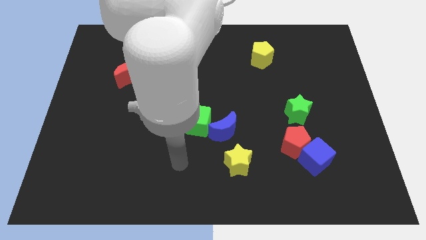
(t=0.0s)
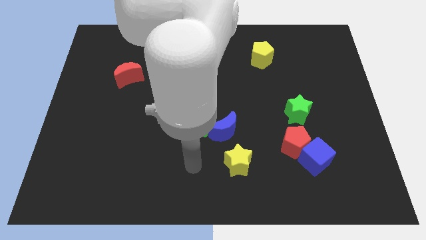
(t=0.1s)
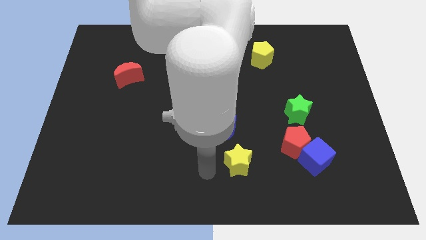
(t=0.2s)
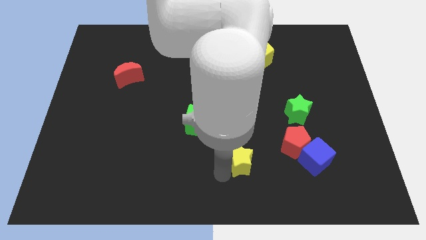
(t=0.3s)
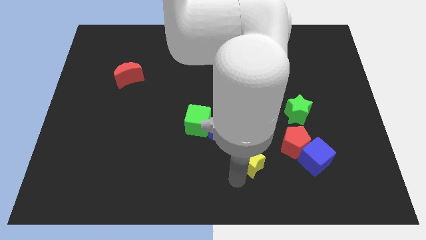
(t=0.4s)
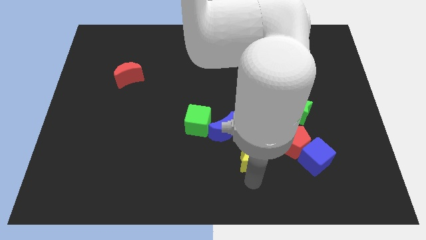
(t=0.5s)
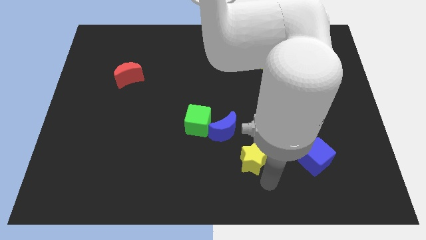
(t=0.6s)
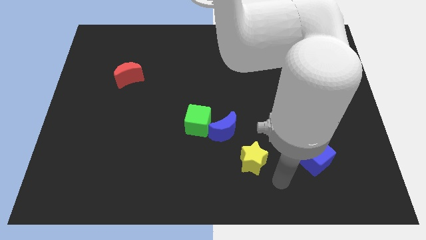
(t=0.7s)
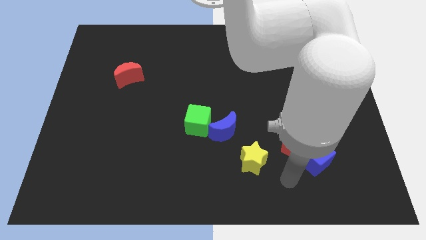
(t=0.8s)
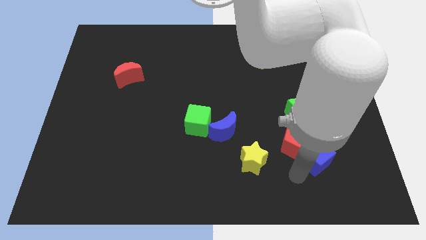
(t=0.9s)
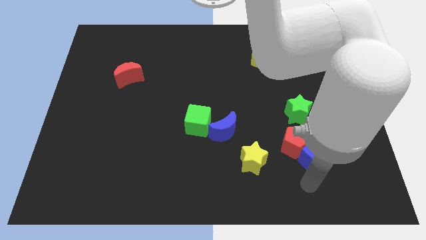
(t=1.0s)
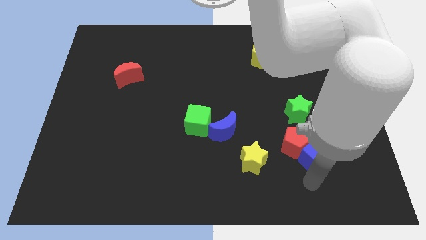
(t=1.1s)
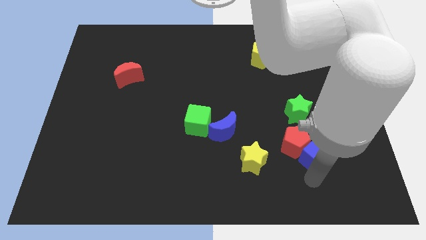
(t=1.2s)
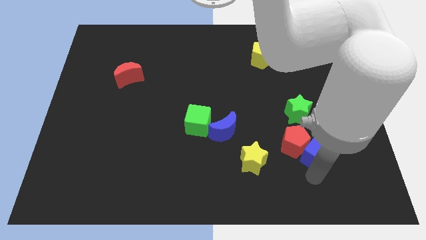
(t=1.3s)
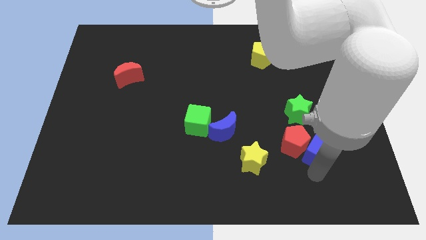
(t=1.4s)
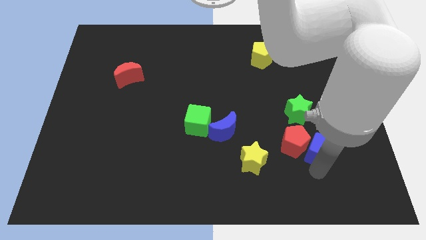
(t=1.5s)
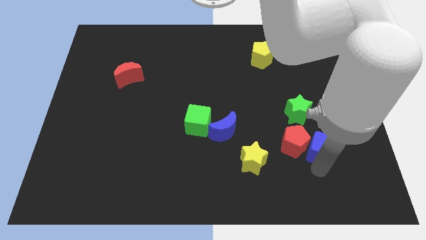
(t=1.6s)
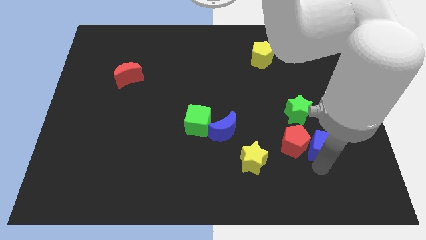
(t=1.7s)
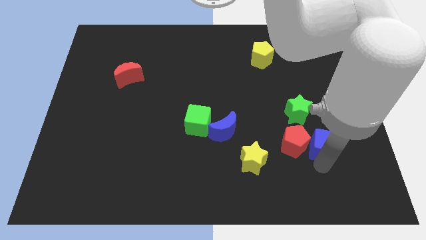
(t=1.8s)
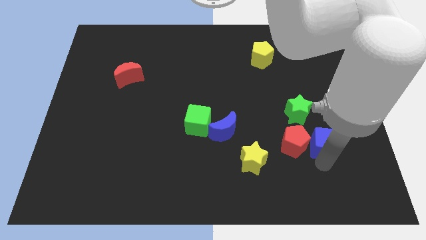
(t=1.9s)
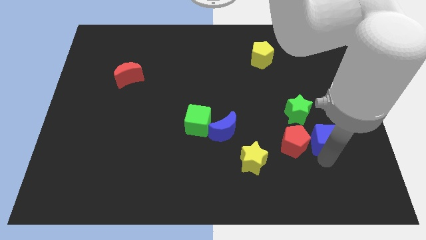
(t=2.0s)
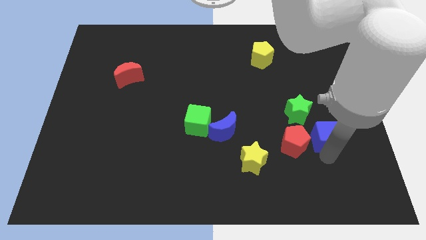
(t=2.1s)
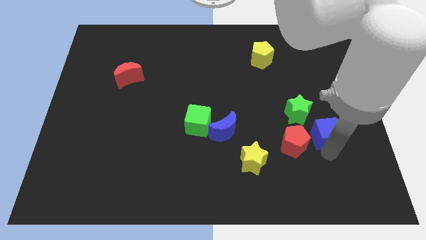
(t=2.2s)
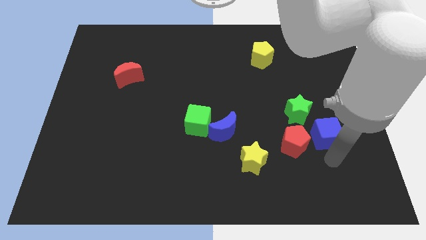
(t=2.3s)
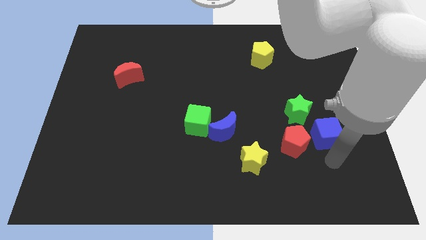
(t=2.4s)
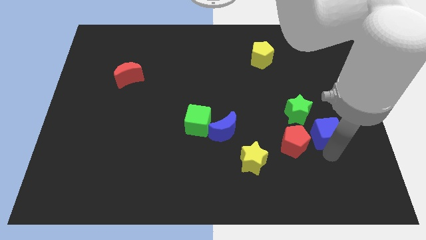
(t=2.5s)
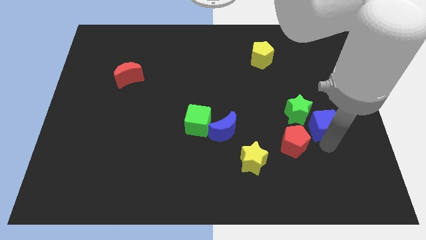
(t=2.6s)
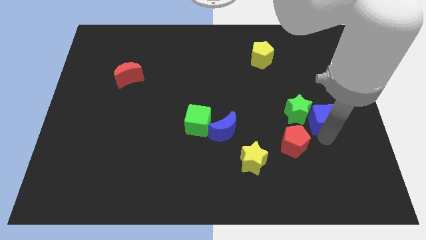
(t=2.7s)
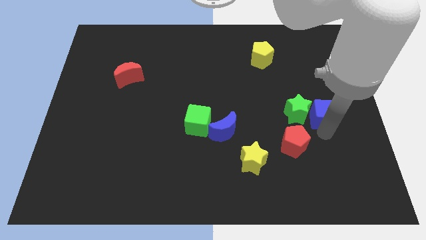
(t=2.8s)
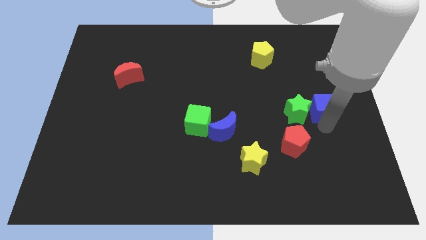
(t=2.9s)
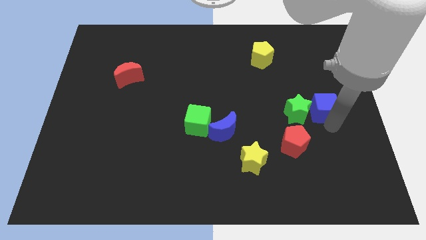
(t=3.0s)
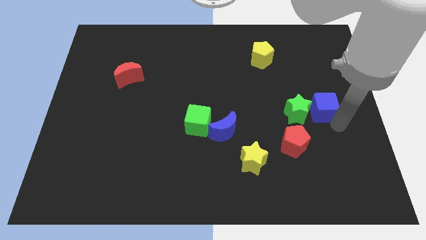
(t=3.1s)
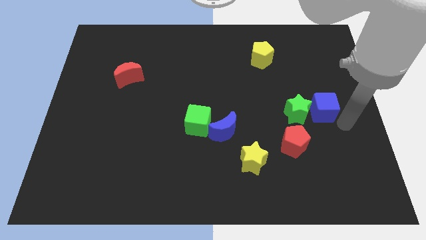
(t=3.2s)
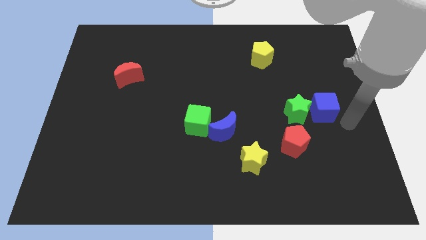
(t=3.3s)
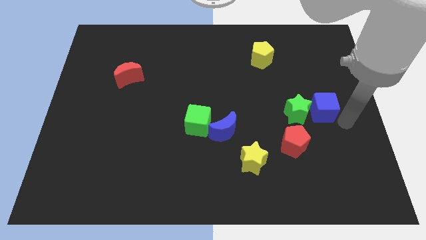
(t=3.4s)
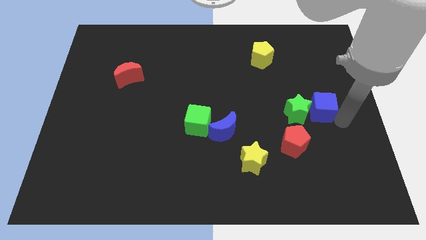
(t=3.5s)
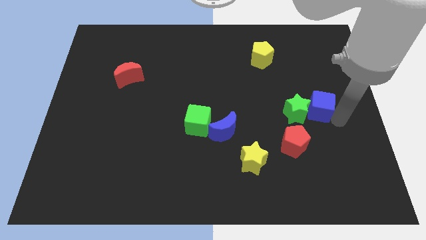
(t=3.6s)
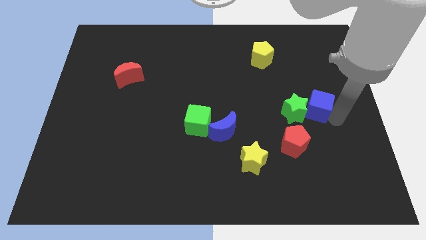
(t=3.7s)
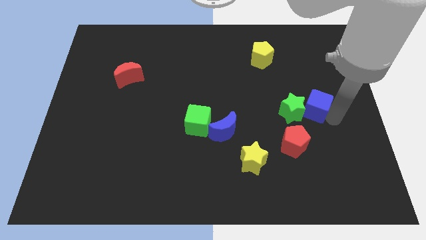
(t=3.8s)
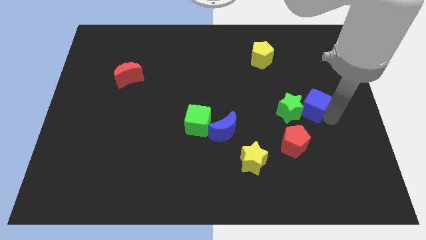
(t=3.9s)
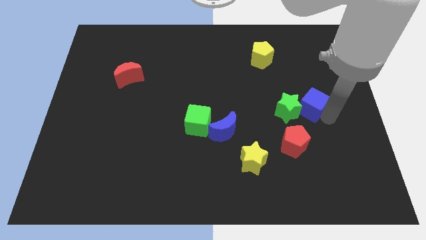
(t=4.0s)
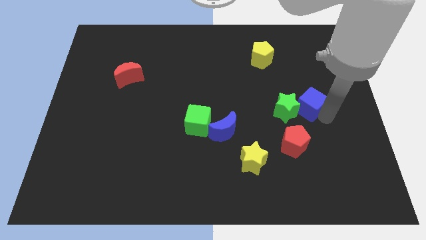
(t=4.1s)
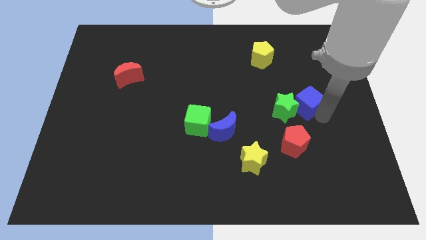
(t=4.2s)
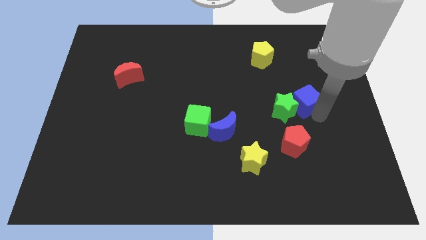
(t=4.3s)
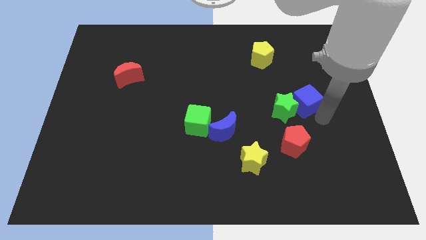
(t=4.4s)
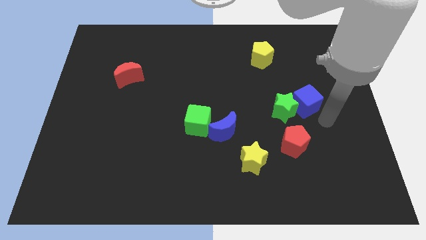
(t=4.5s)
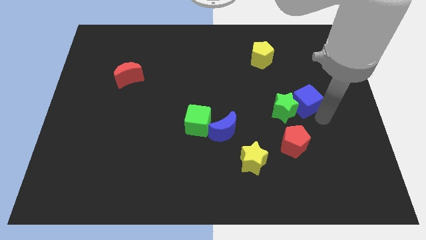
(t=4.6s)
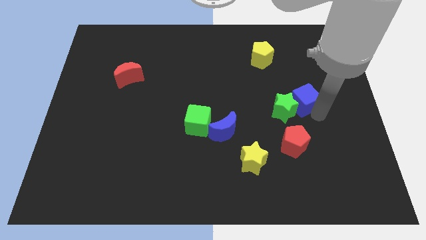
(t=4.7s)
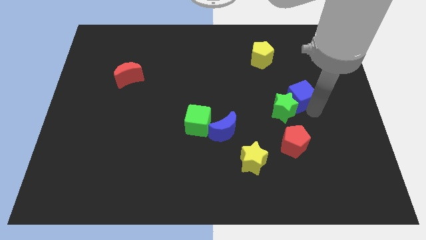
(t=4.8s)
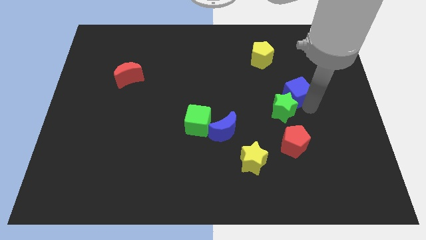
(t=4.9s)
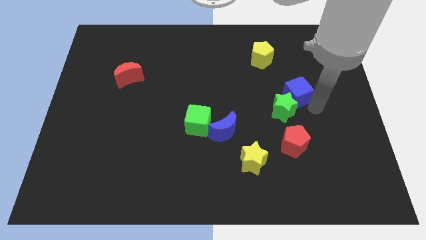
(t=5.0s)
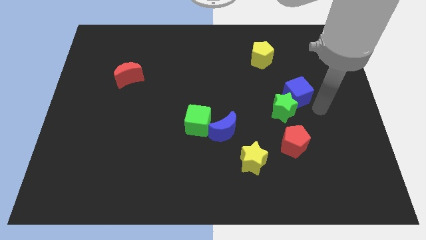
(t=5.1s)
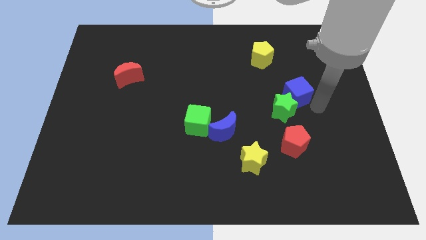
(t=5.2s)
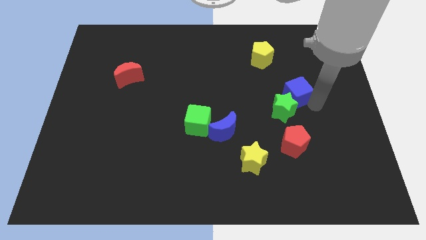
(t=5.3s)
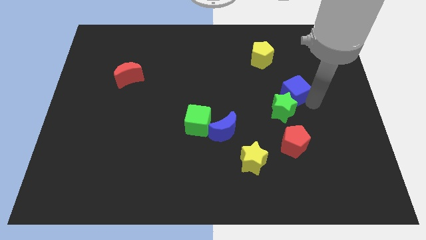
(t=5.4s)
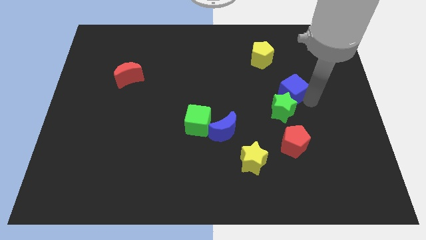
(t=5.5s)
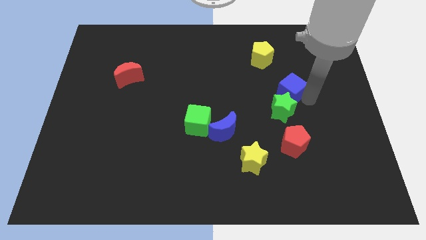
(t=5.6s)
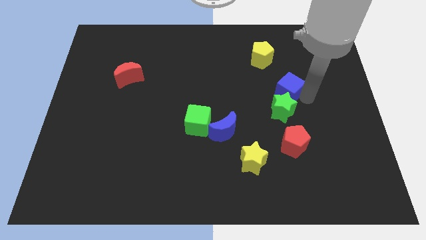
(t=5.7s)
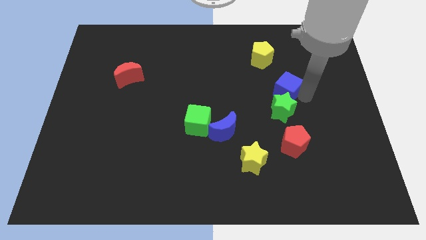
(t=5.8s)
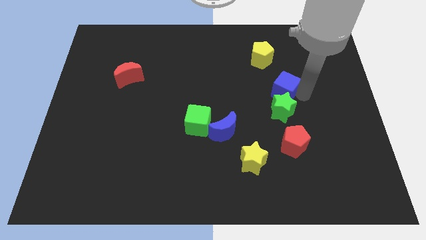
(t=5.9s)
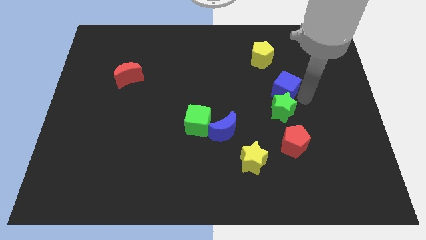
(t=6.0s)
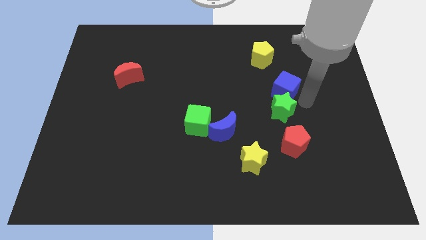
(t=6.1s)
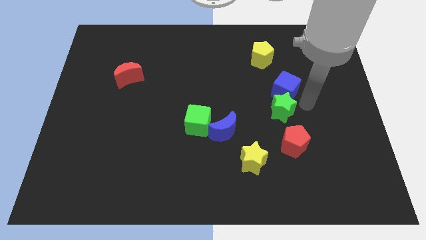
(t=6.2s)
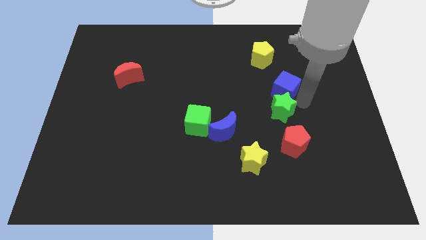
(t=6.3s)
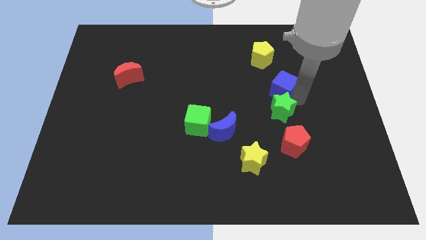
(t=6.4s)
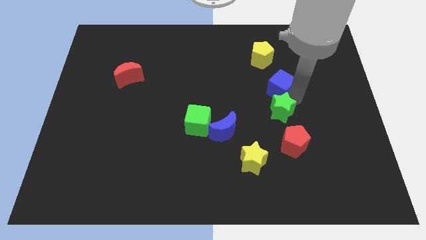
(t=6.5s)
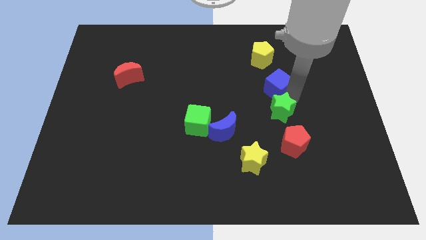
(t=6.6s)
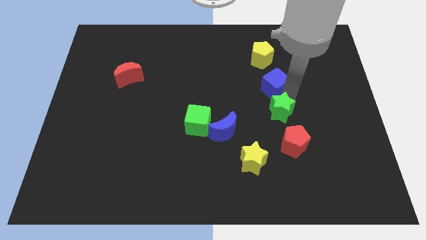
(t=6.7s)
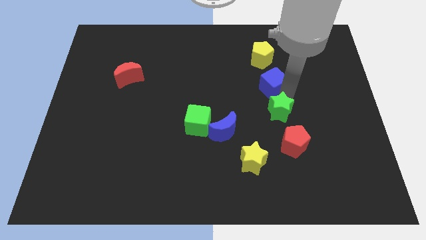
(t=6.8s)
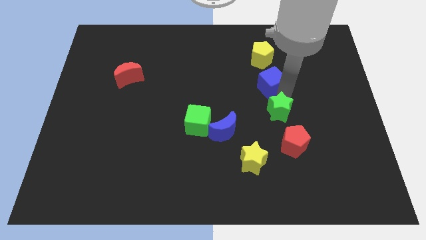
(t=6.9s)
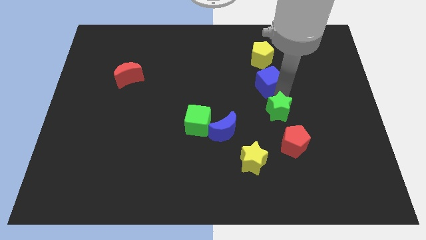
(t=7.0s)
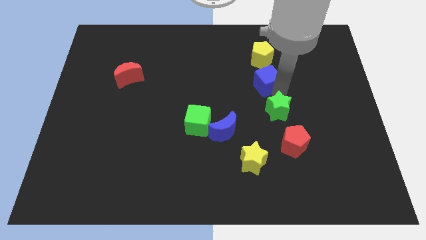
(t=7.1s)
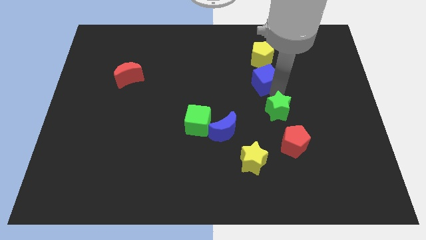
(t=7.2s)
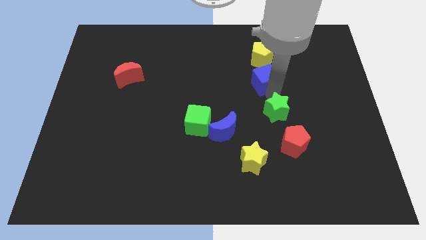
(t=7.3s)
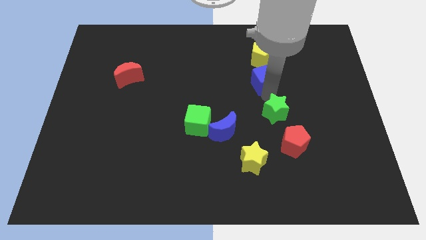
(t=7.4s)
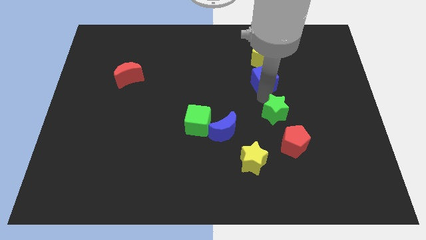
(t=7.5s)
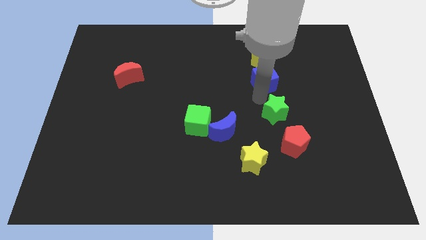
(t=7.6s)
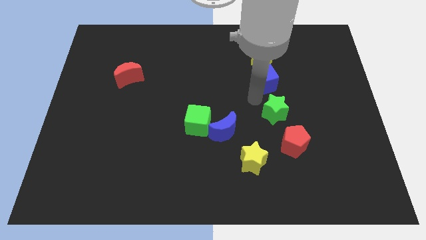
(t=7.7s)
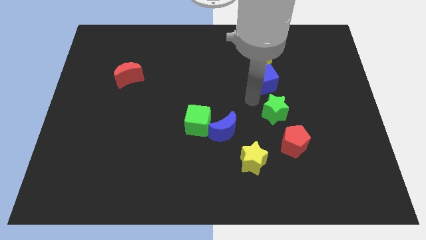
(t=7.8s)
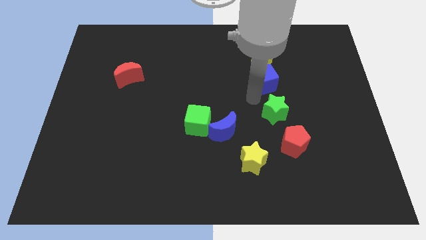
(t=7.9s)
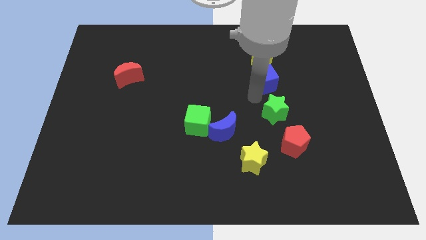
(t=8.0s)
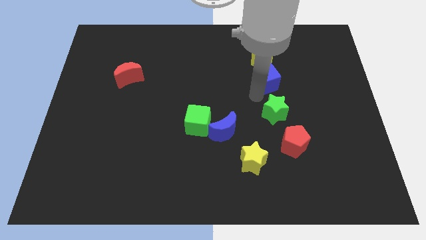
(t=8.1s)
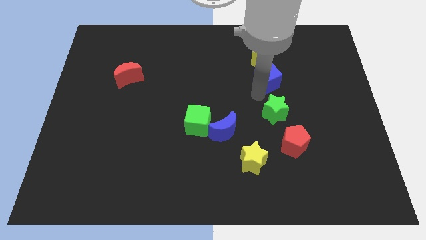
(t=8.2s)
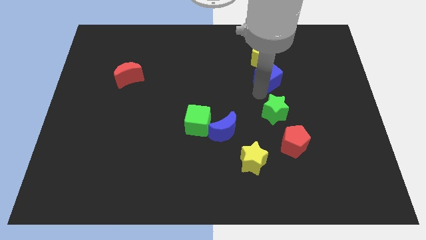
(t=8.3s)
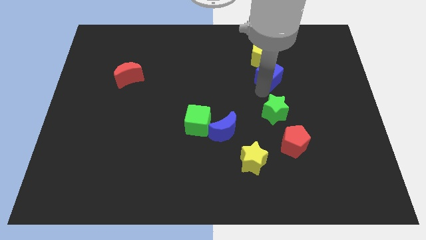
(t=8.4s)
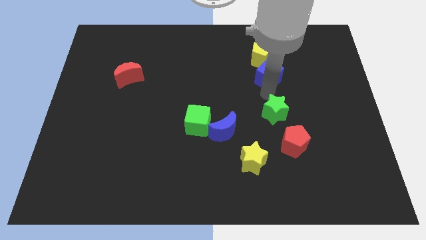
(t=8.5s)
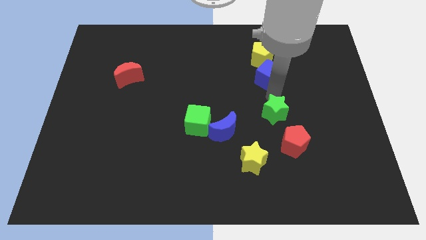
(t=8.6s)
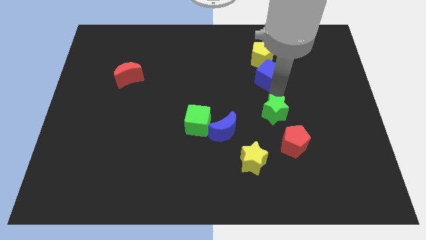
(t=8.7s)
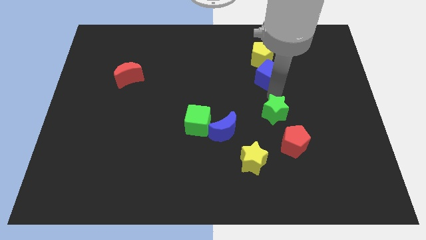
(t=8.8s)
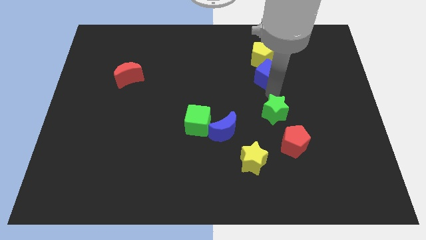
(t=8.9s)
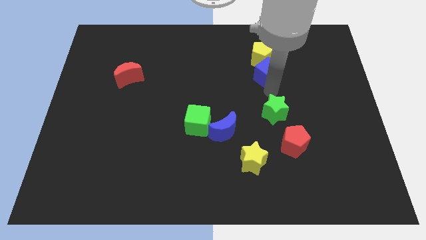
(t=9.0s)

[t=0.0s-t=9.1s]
move the blue cube to the yellow pentagon
